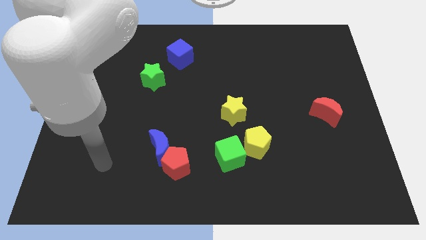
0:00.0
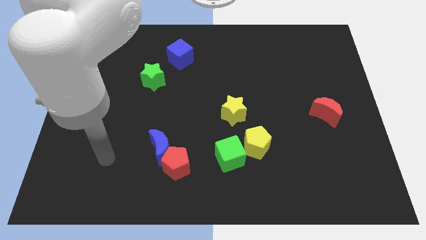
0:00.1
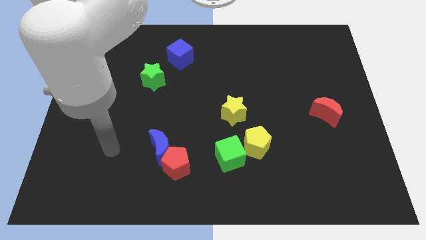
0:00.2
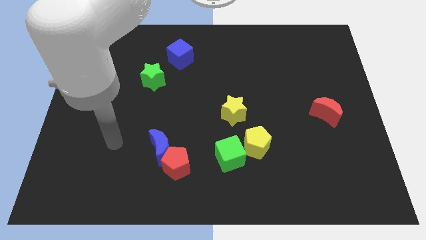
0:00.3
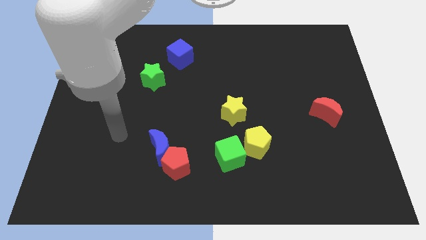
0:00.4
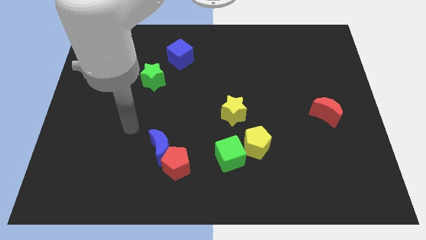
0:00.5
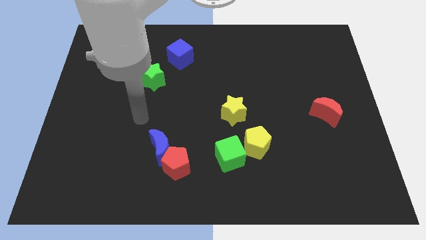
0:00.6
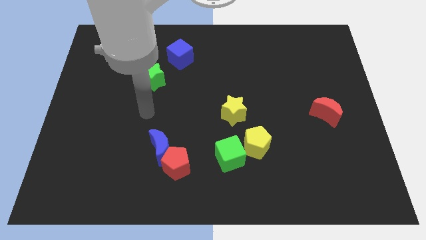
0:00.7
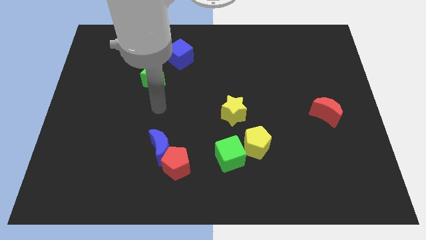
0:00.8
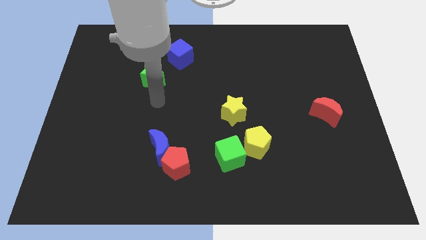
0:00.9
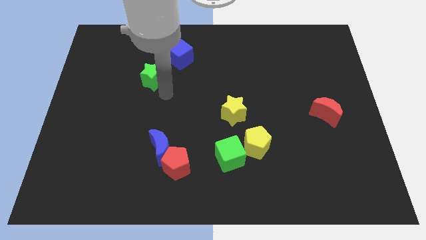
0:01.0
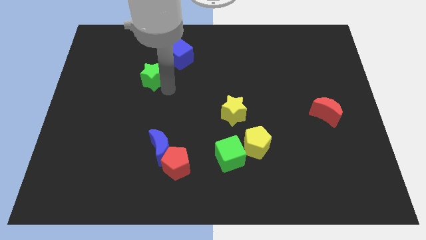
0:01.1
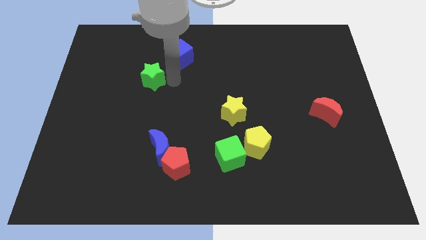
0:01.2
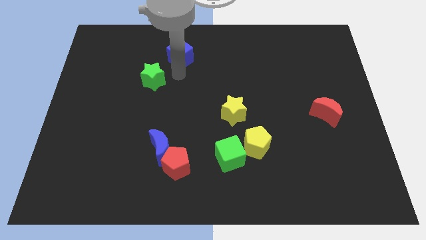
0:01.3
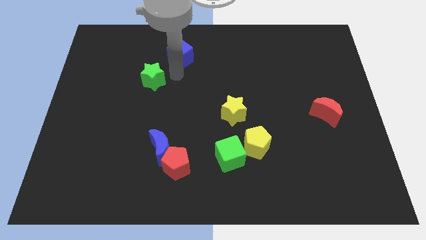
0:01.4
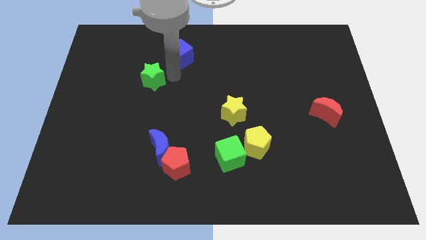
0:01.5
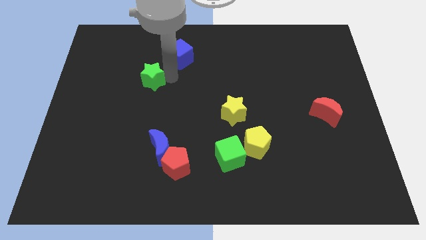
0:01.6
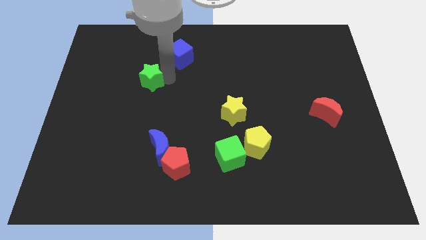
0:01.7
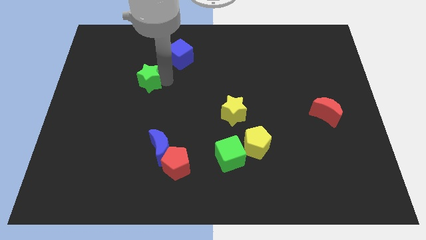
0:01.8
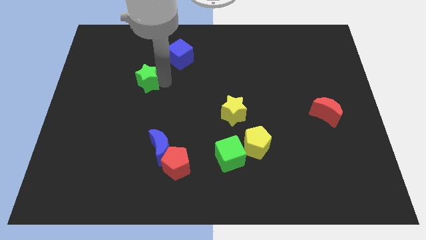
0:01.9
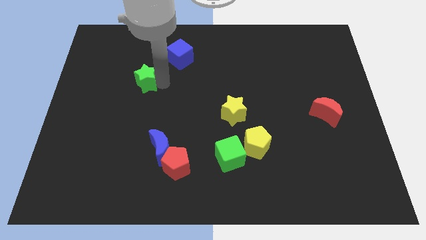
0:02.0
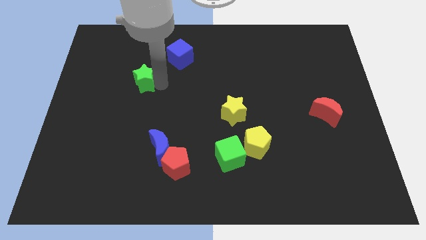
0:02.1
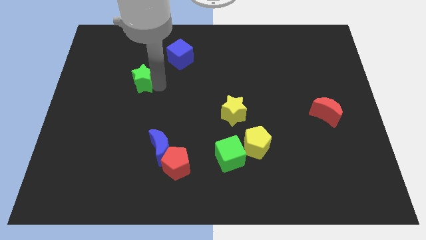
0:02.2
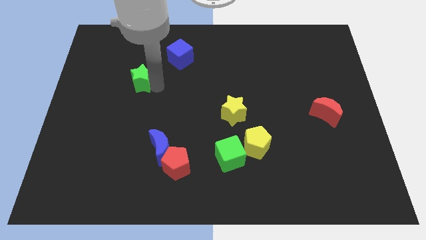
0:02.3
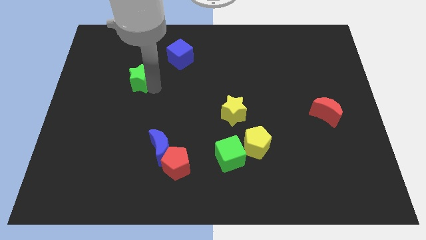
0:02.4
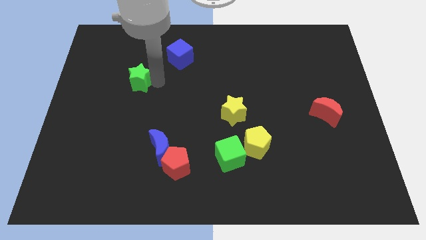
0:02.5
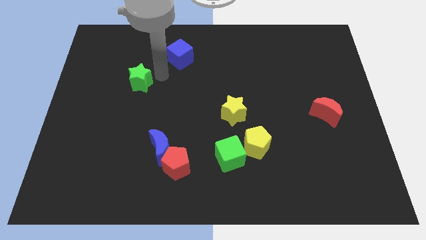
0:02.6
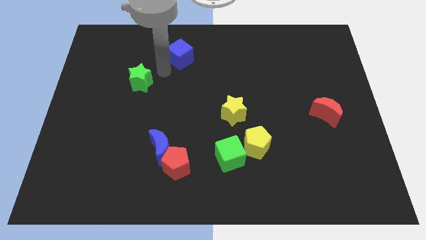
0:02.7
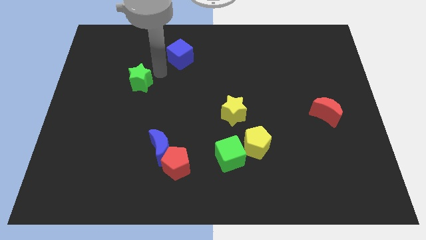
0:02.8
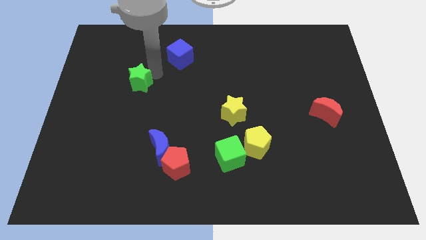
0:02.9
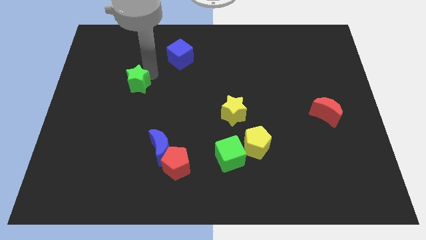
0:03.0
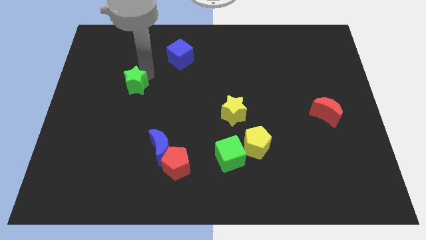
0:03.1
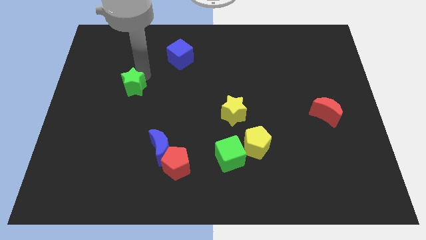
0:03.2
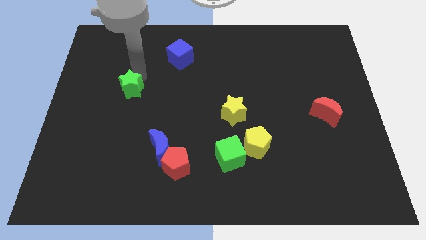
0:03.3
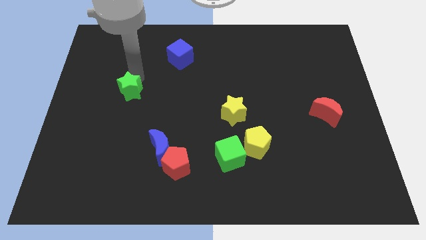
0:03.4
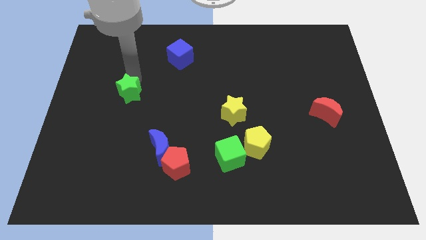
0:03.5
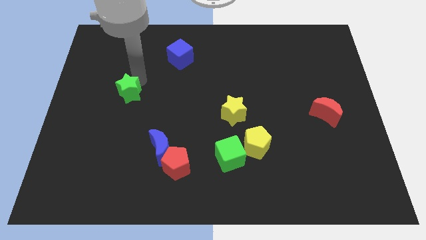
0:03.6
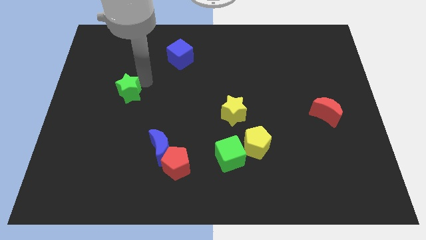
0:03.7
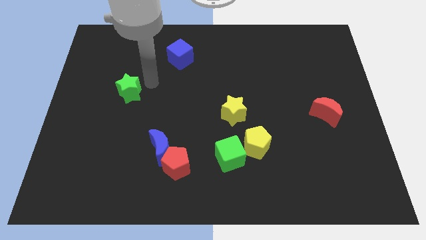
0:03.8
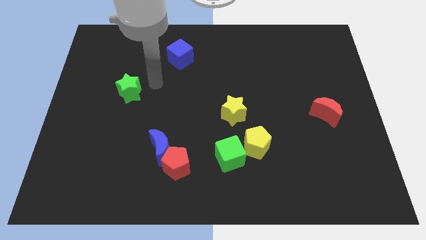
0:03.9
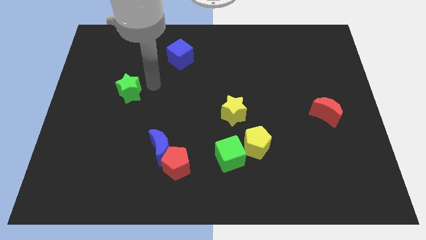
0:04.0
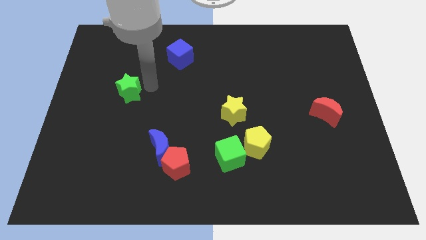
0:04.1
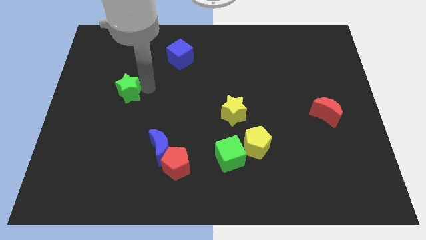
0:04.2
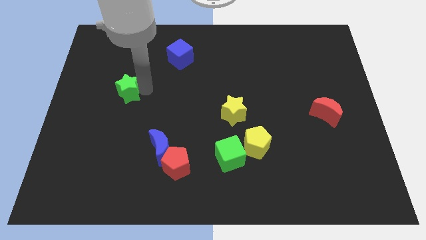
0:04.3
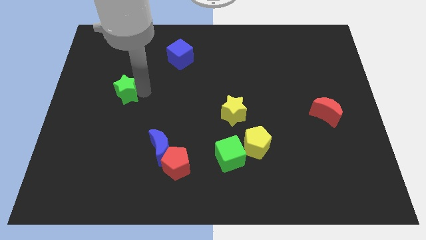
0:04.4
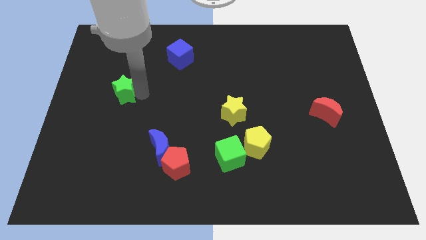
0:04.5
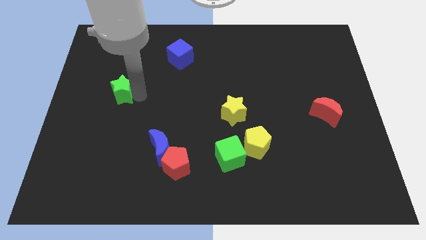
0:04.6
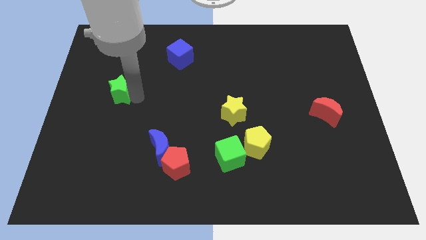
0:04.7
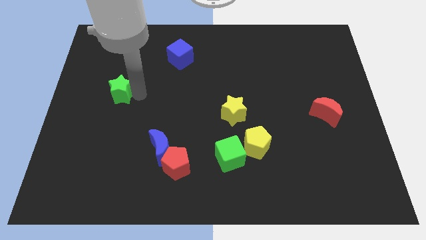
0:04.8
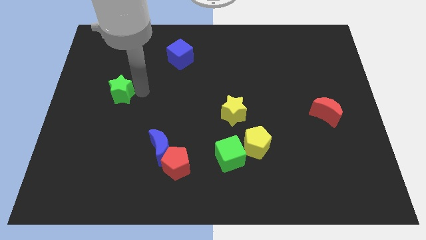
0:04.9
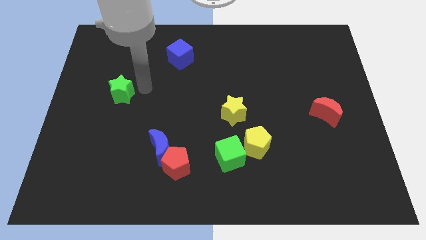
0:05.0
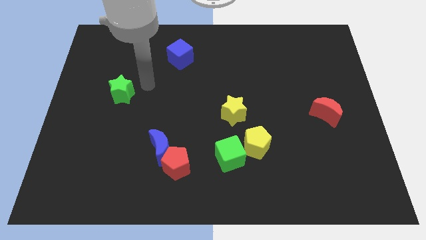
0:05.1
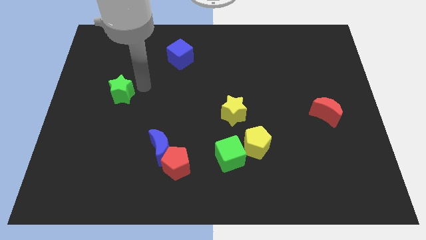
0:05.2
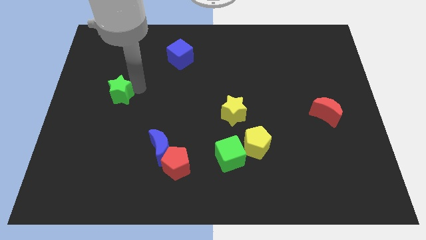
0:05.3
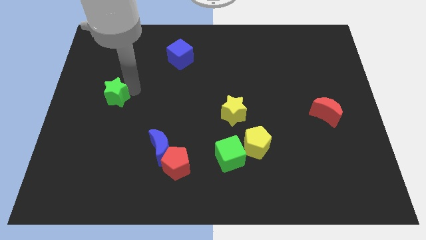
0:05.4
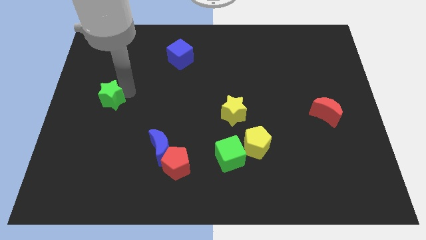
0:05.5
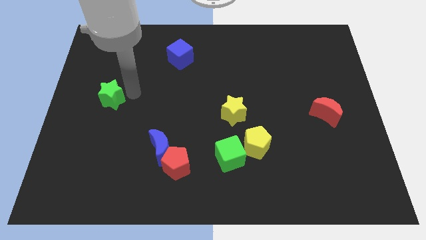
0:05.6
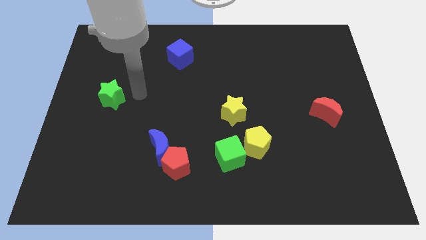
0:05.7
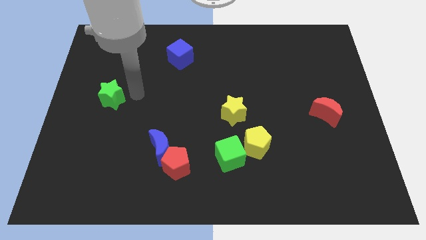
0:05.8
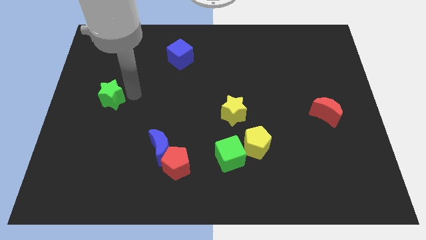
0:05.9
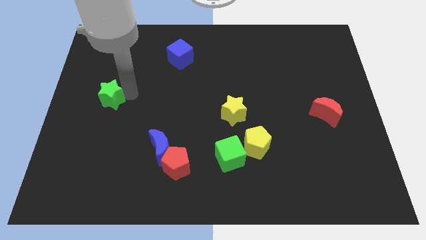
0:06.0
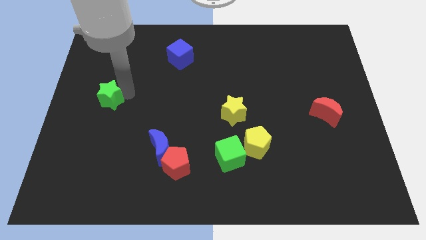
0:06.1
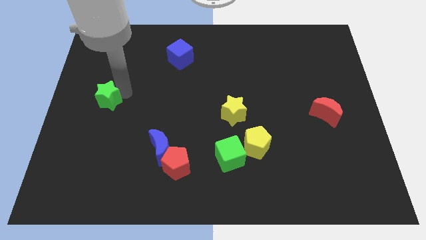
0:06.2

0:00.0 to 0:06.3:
move the green star to the left side
